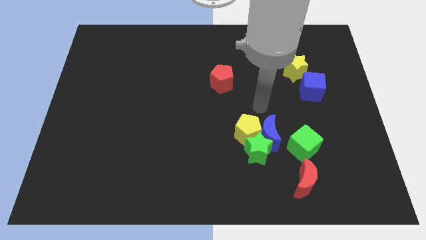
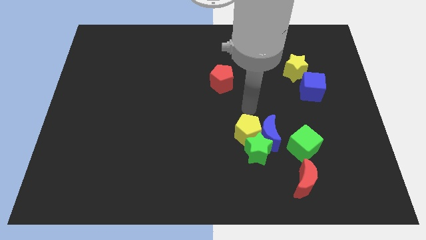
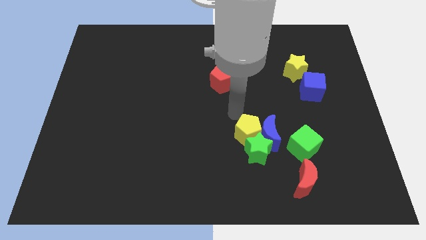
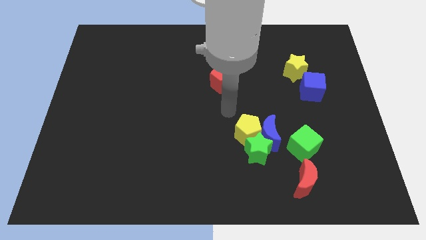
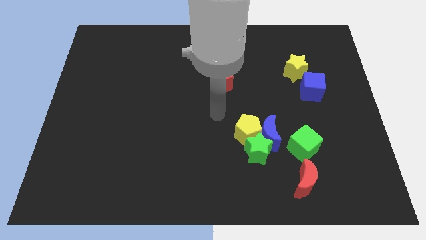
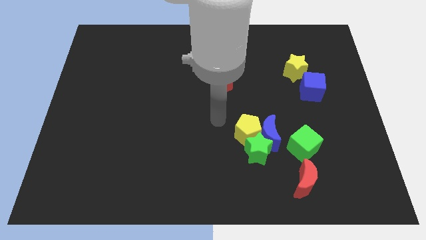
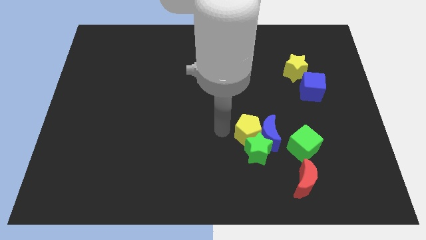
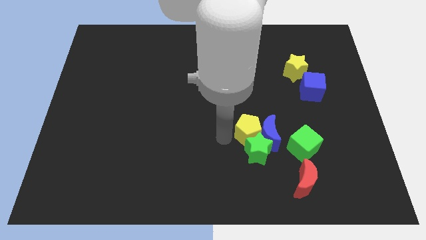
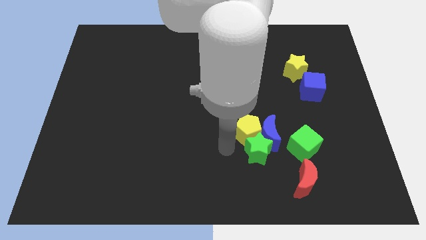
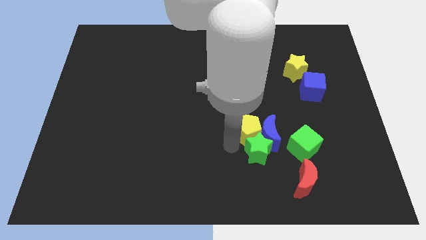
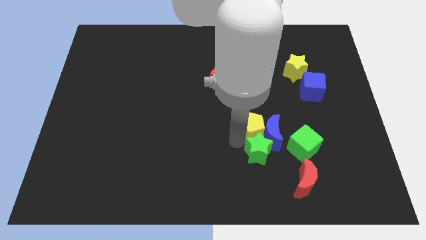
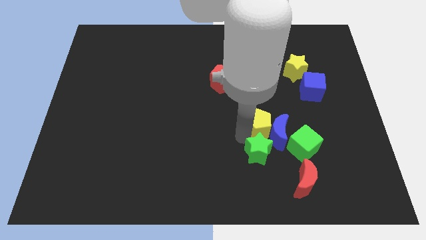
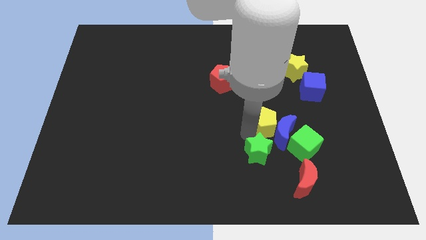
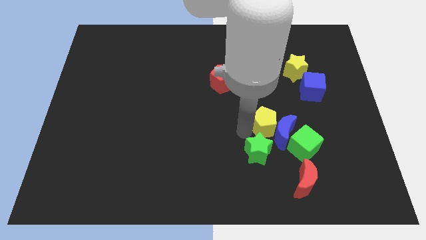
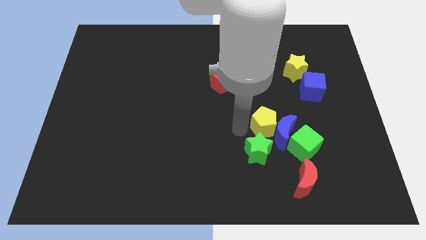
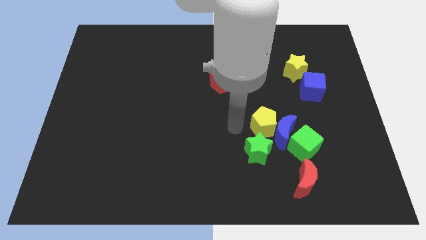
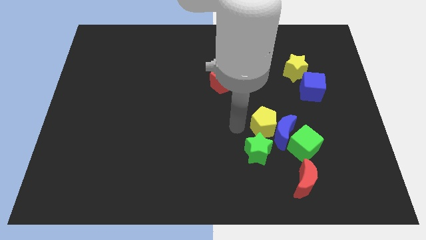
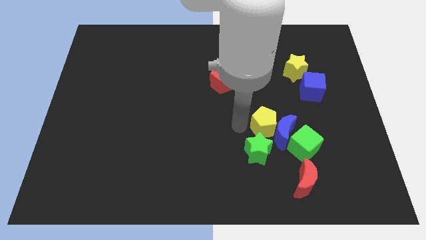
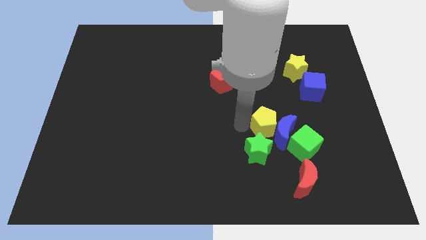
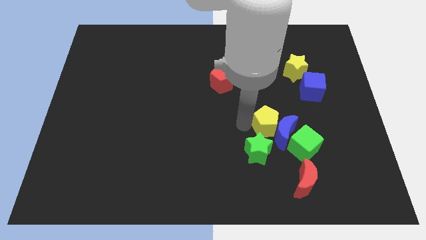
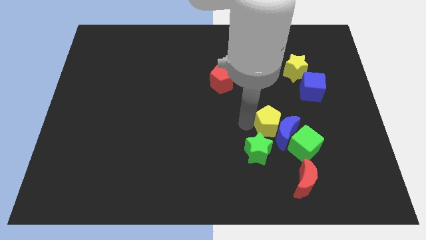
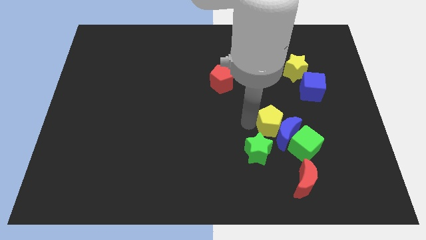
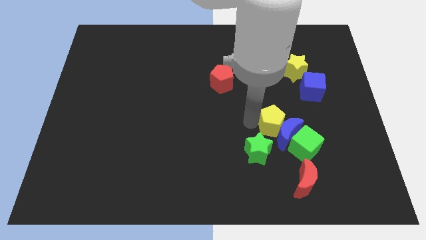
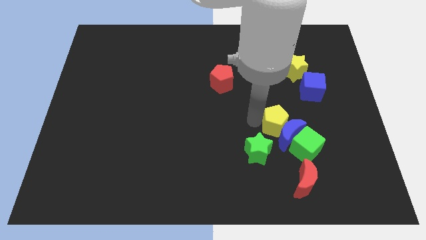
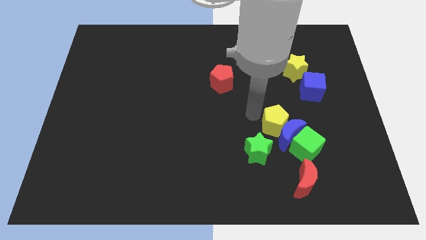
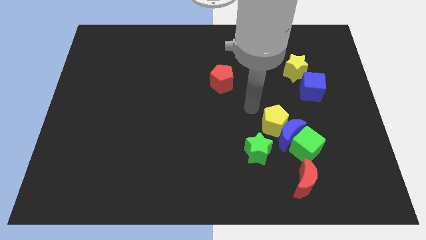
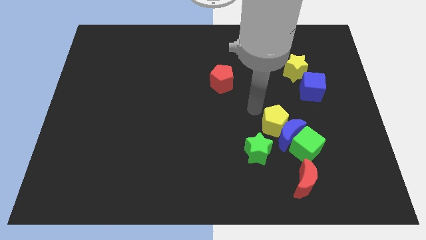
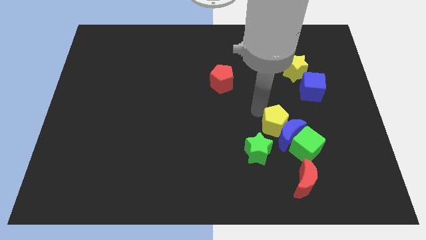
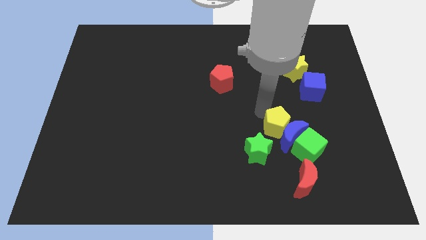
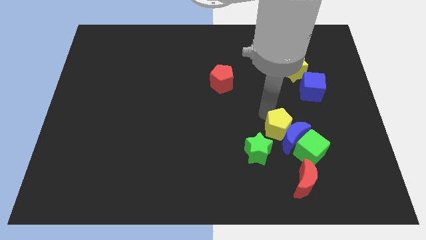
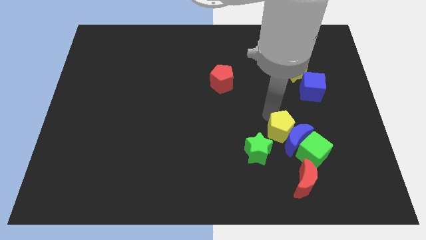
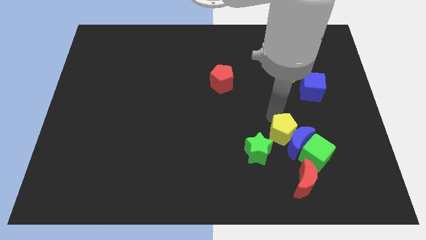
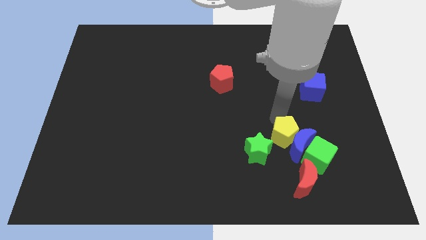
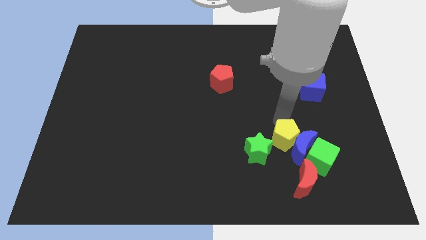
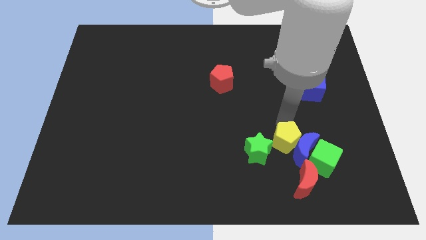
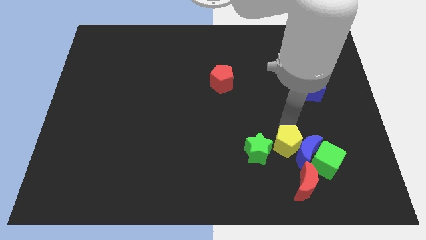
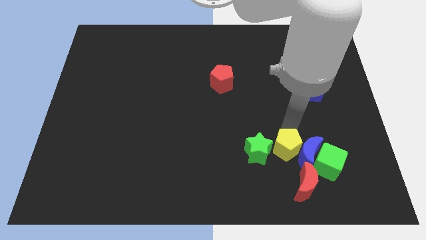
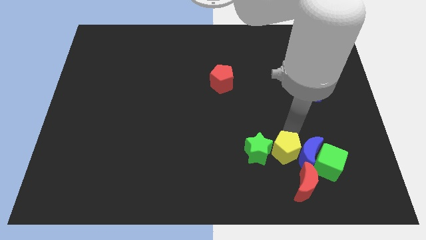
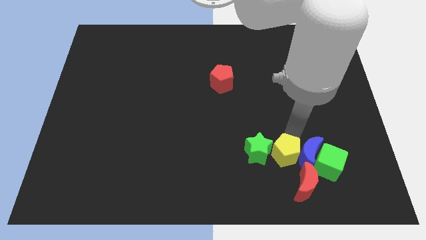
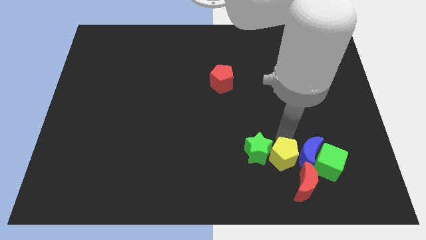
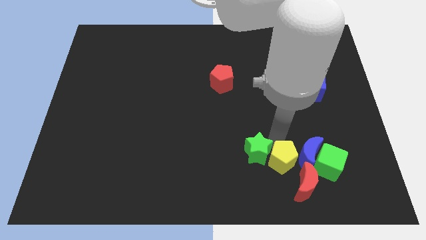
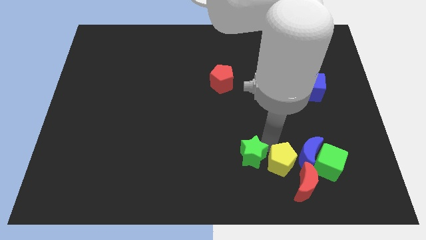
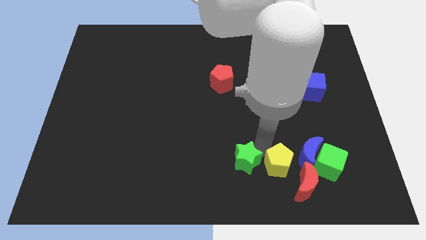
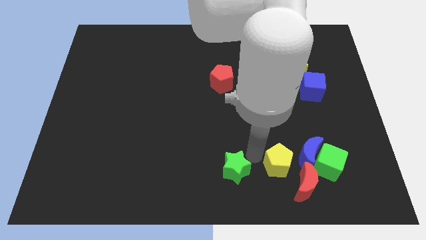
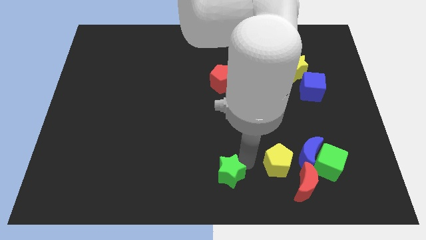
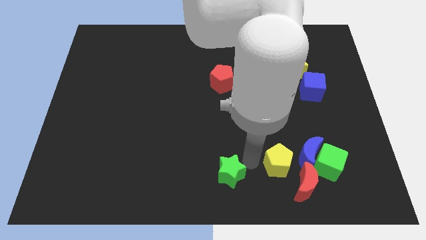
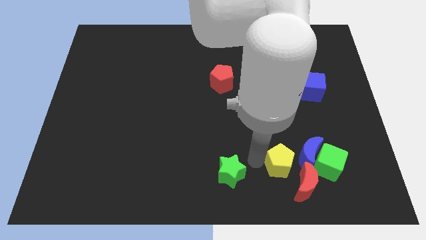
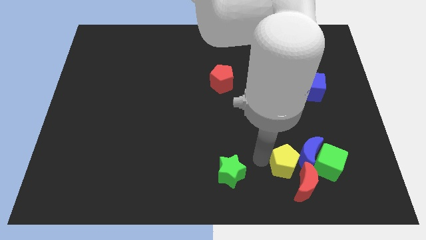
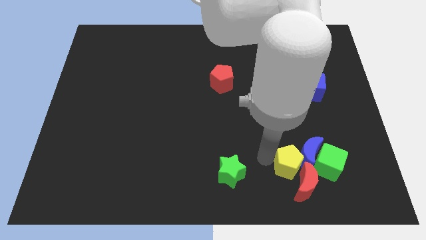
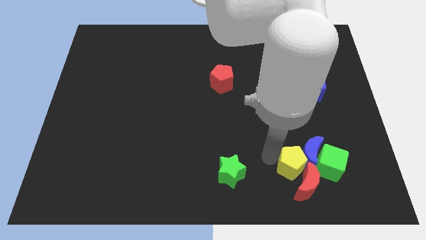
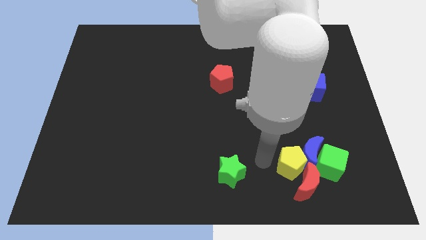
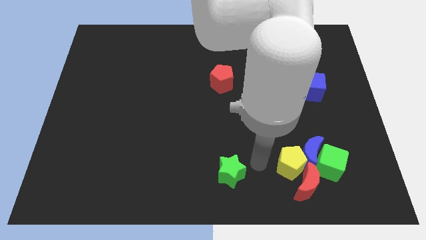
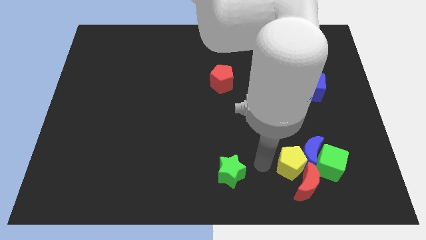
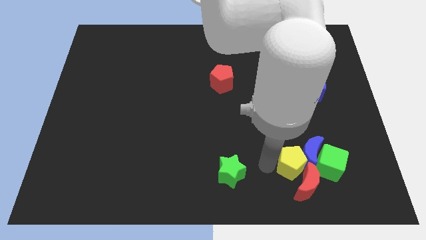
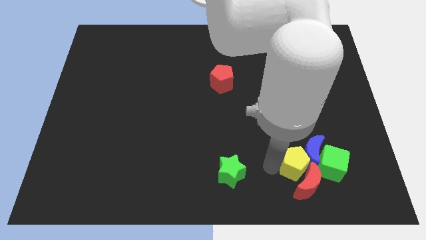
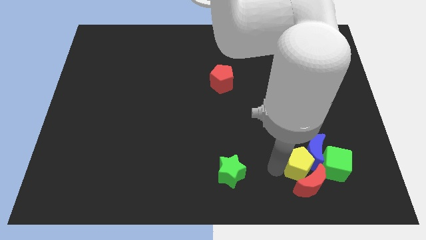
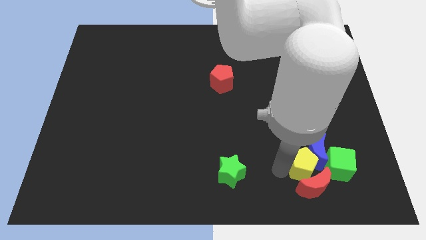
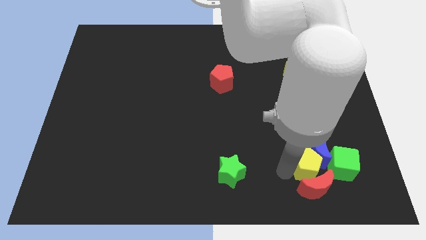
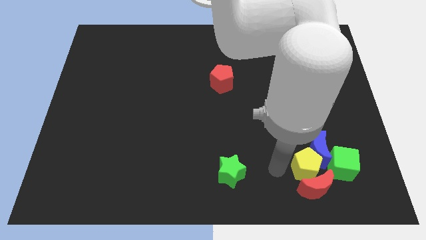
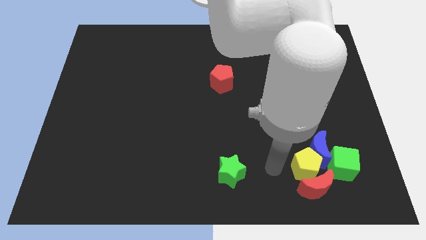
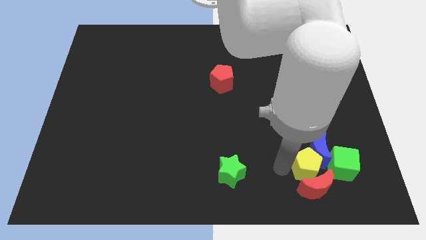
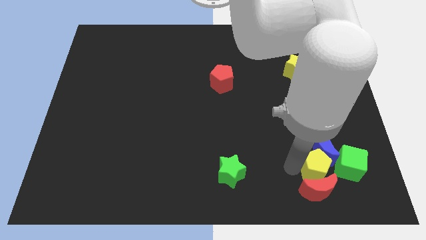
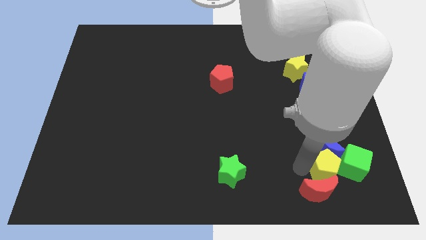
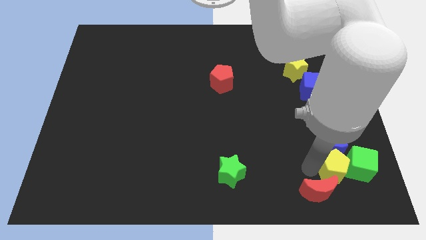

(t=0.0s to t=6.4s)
put the yellow pentagon next to the green cube
